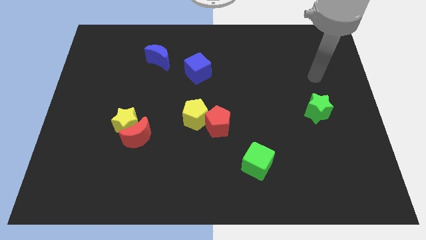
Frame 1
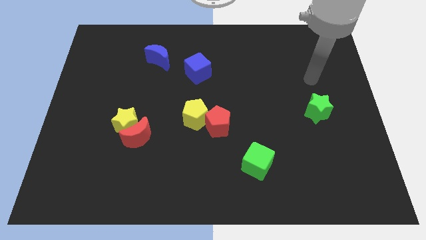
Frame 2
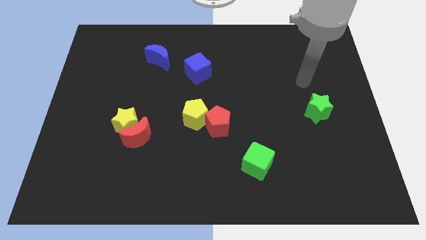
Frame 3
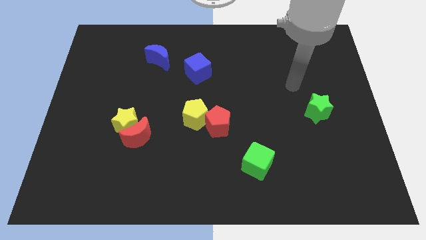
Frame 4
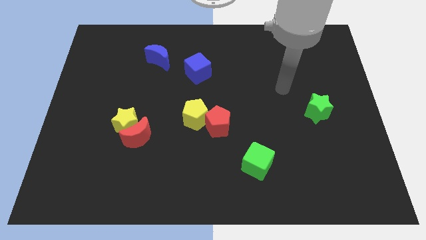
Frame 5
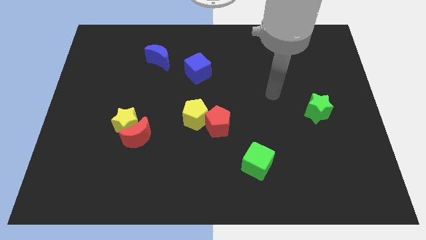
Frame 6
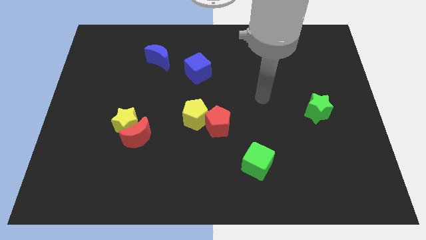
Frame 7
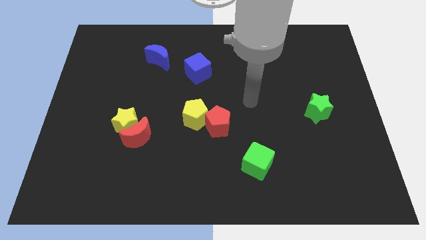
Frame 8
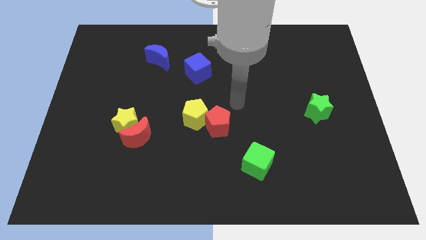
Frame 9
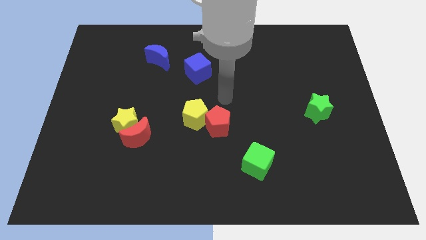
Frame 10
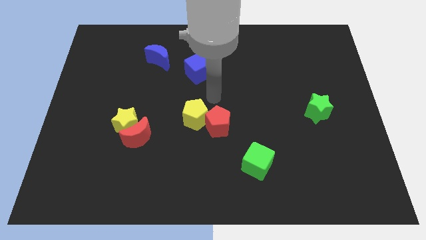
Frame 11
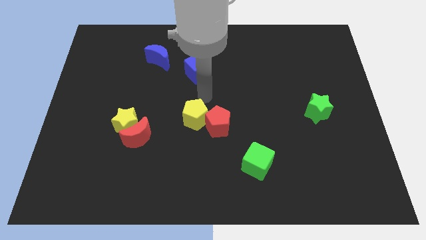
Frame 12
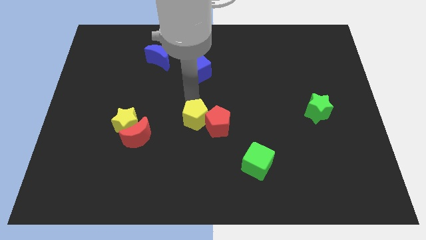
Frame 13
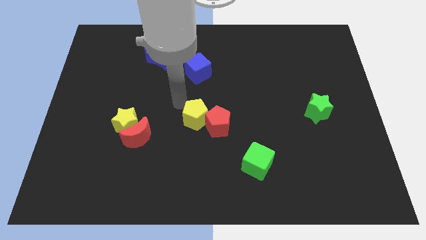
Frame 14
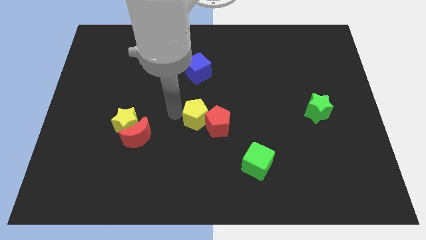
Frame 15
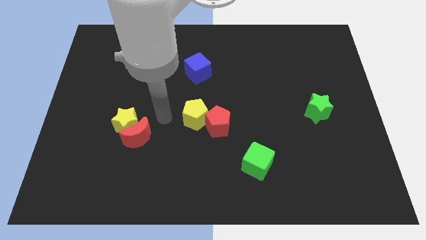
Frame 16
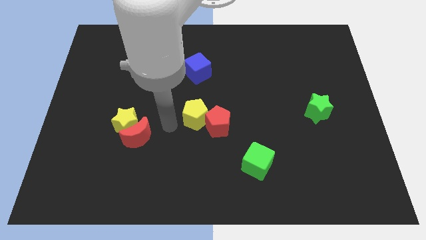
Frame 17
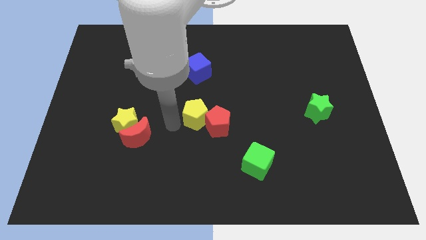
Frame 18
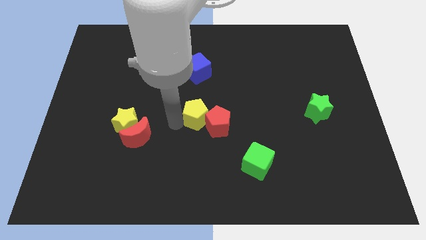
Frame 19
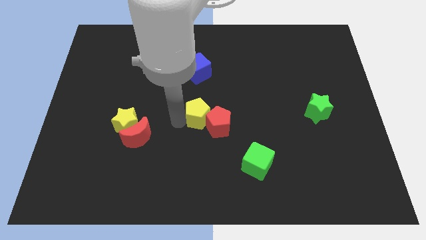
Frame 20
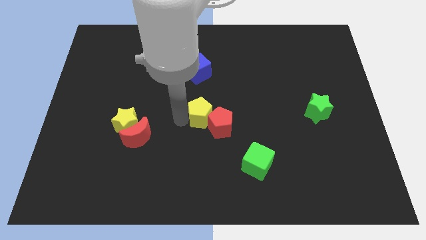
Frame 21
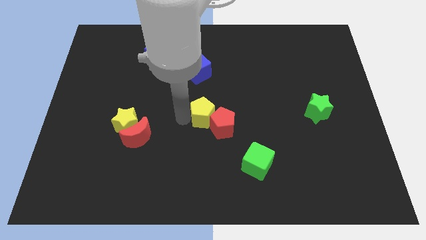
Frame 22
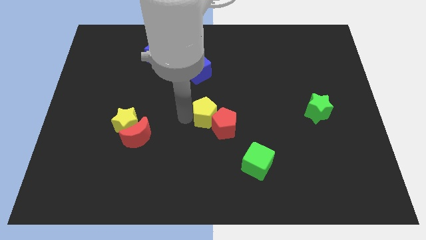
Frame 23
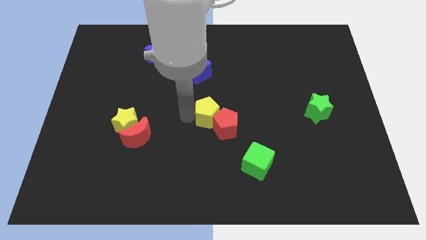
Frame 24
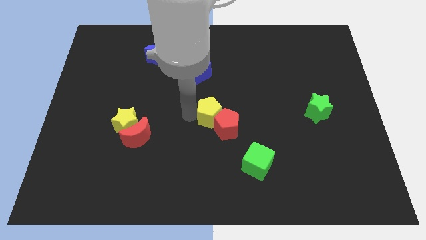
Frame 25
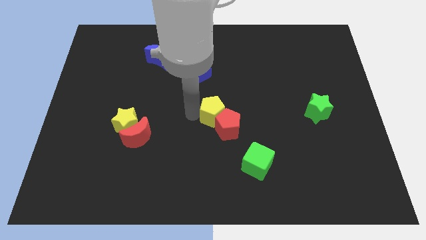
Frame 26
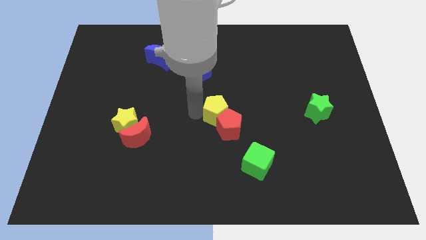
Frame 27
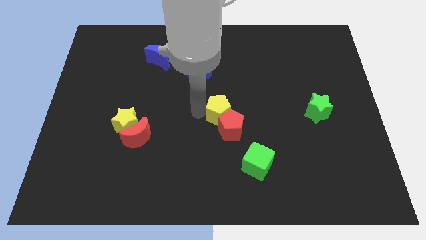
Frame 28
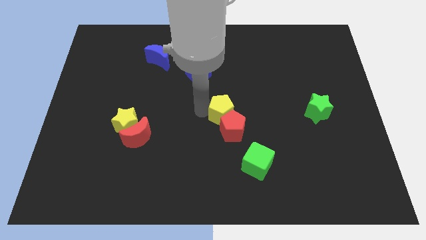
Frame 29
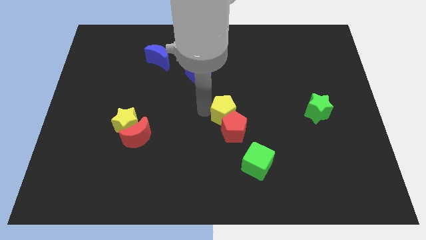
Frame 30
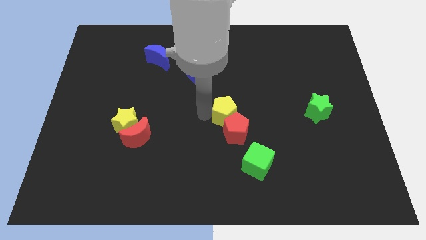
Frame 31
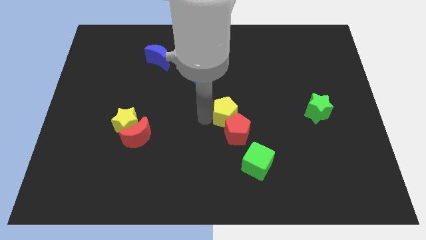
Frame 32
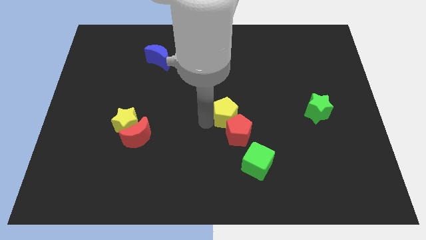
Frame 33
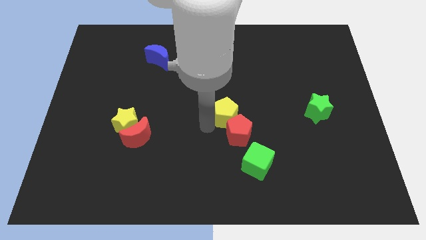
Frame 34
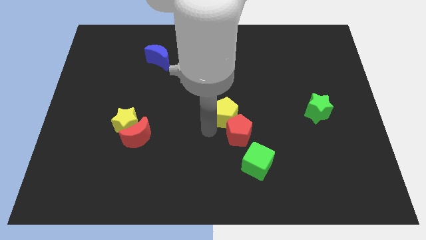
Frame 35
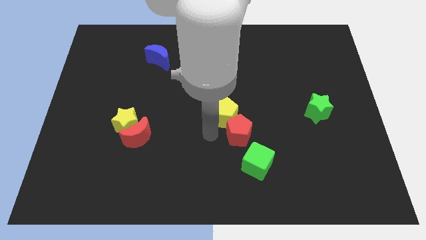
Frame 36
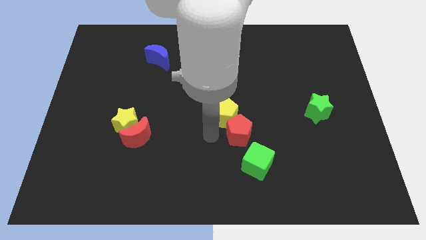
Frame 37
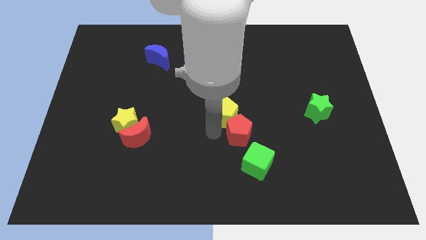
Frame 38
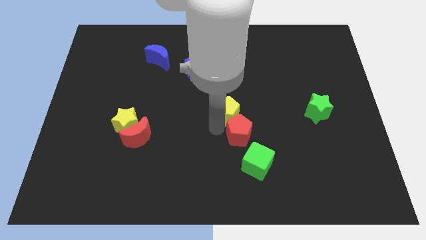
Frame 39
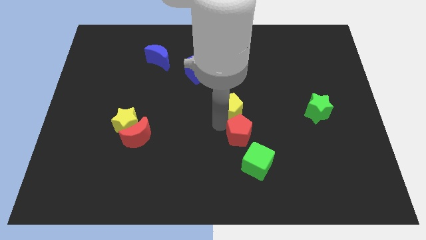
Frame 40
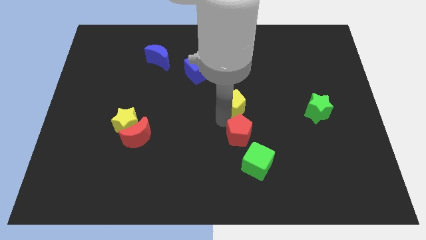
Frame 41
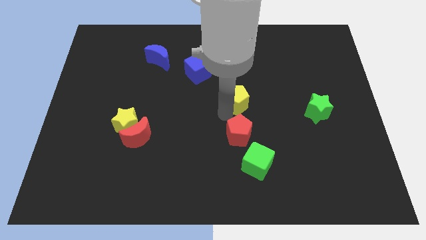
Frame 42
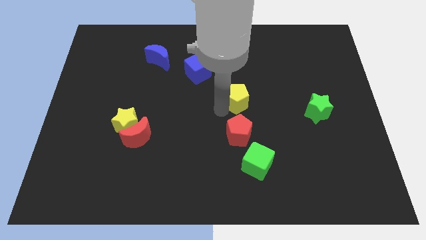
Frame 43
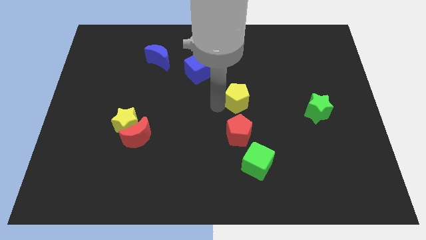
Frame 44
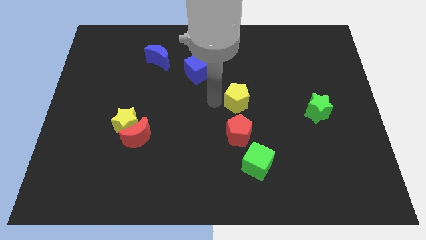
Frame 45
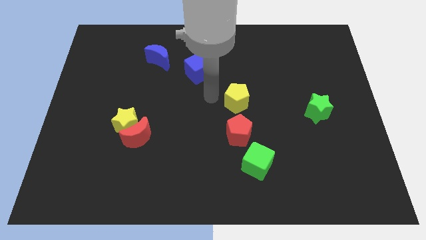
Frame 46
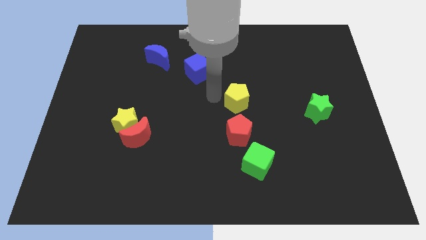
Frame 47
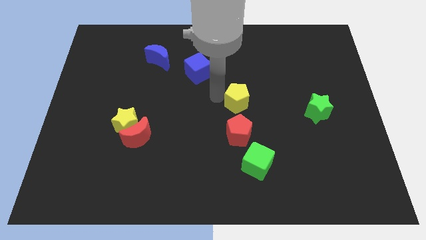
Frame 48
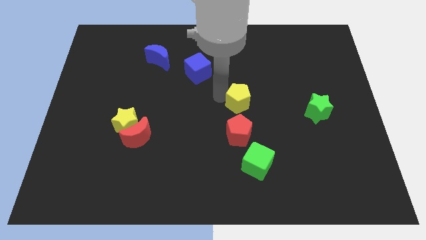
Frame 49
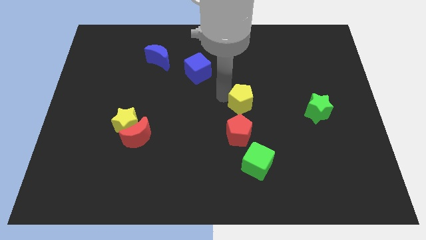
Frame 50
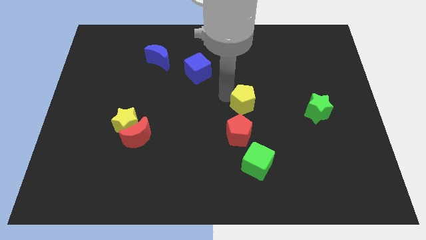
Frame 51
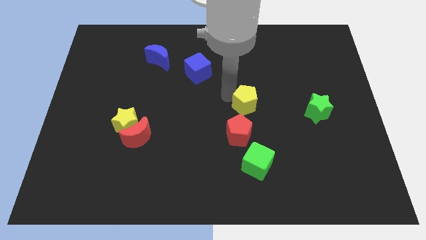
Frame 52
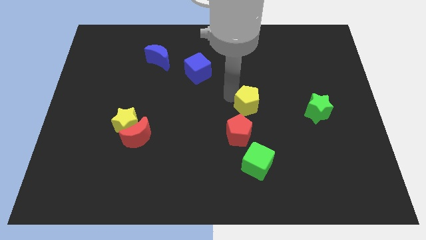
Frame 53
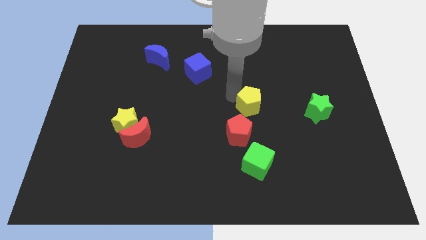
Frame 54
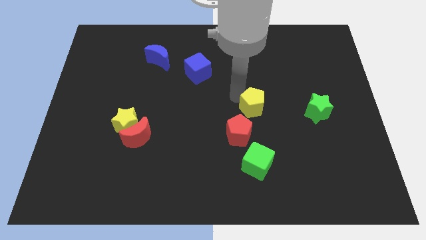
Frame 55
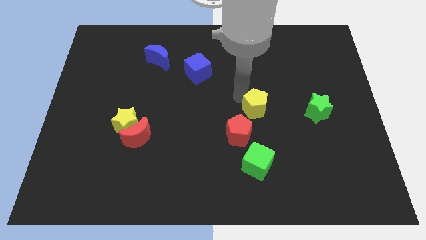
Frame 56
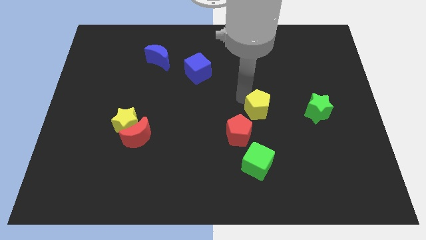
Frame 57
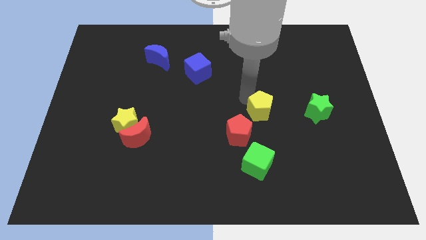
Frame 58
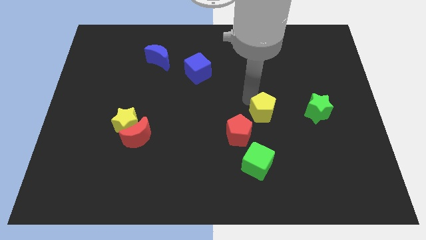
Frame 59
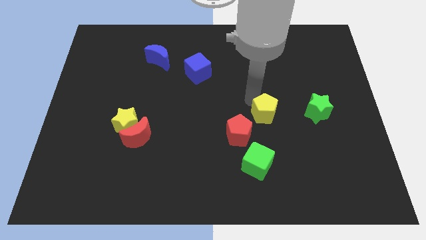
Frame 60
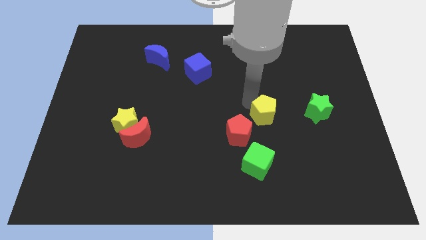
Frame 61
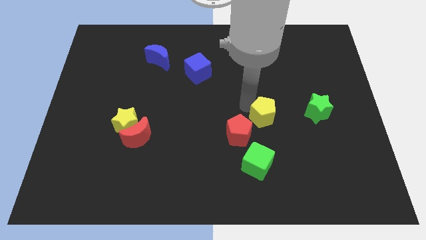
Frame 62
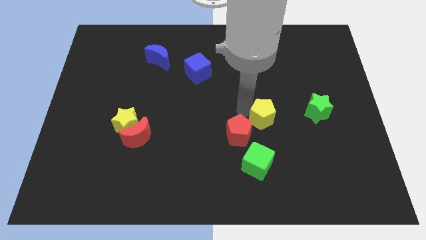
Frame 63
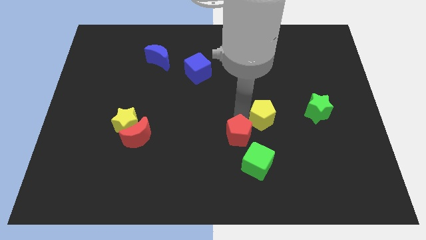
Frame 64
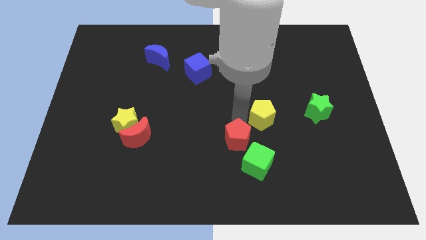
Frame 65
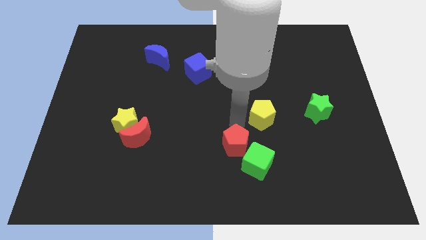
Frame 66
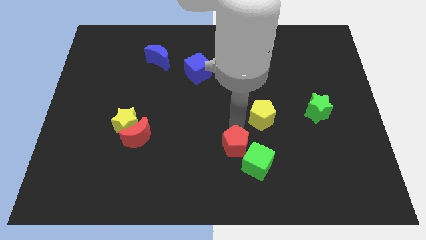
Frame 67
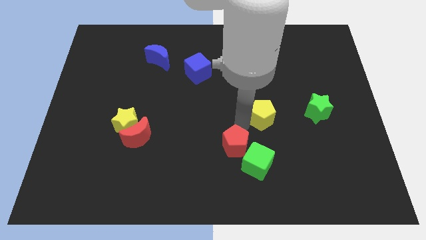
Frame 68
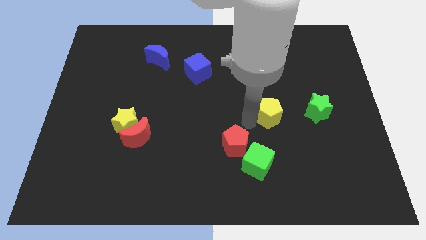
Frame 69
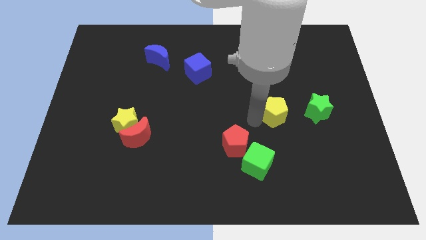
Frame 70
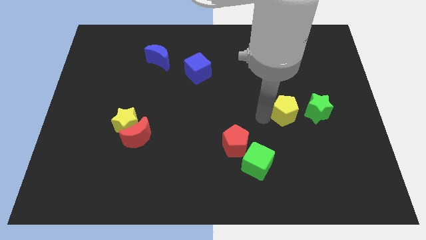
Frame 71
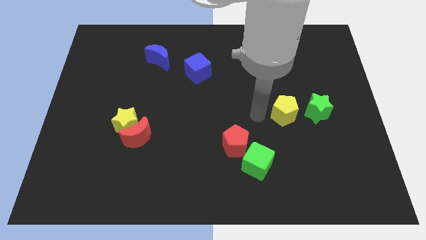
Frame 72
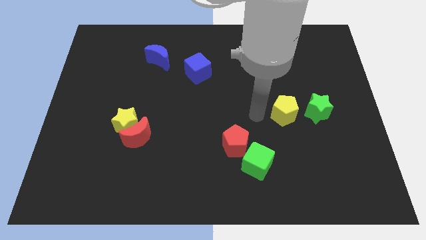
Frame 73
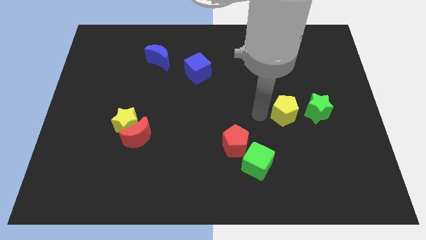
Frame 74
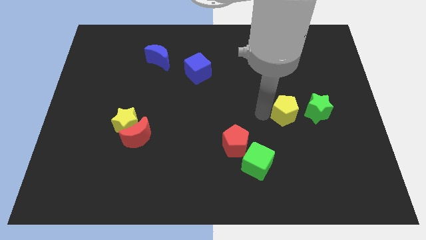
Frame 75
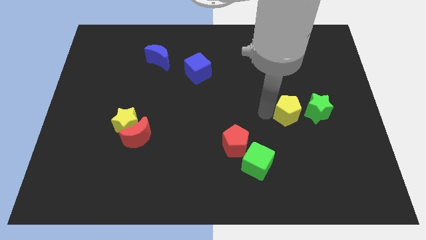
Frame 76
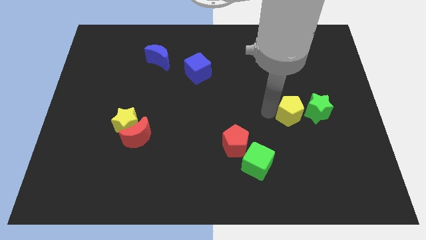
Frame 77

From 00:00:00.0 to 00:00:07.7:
slide the yellow pentagon close to the green star
